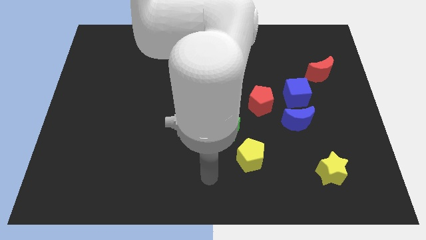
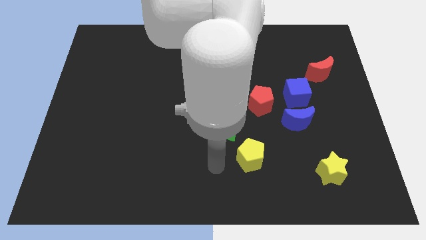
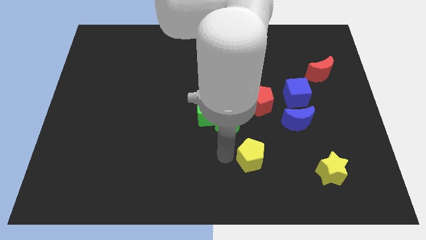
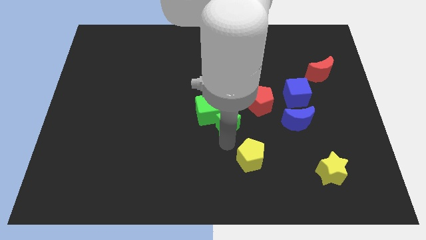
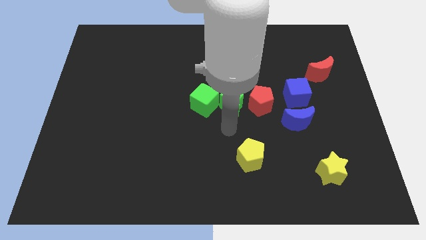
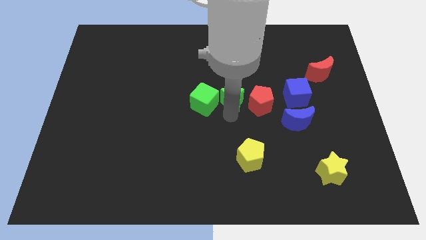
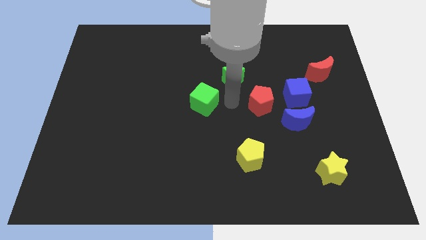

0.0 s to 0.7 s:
separate the green cube from the green star

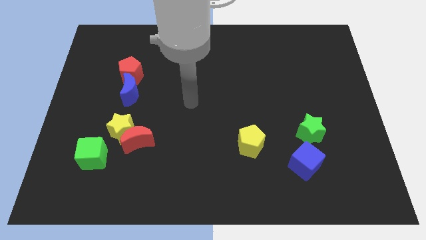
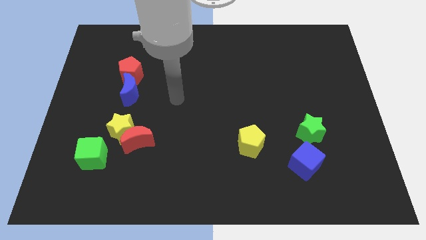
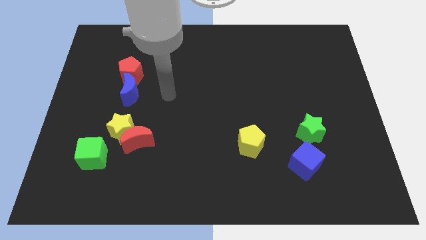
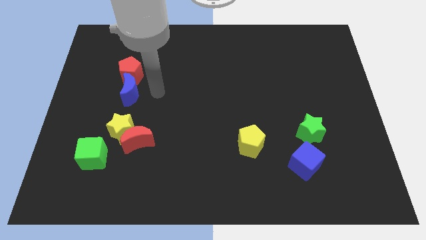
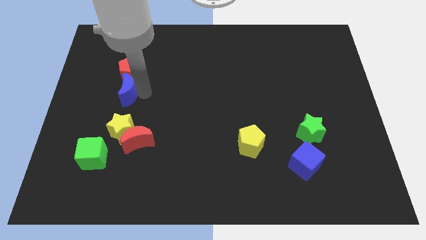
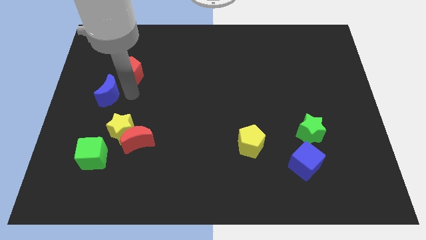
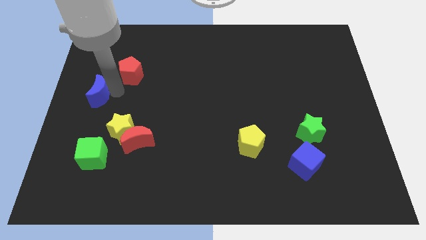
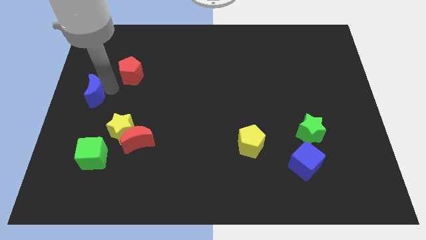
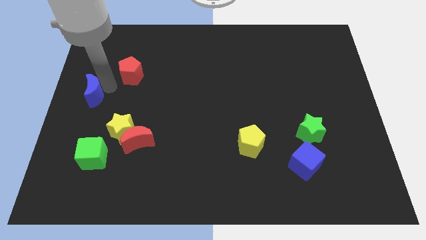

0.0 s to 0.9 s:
separate the red pentagon from the blue moon

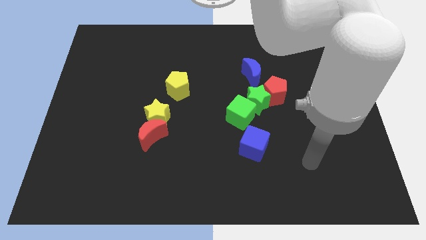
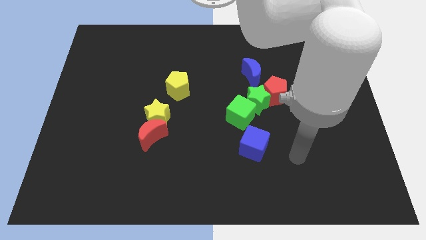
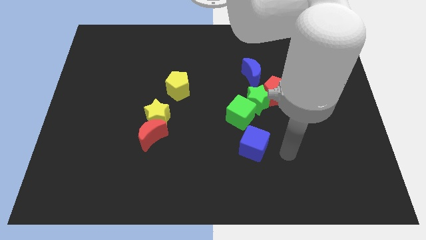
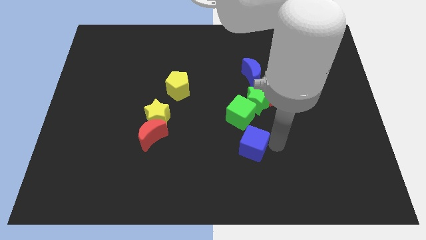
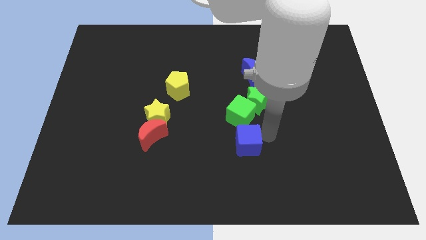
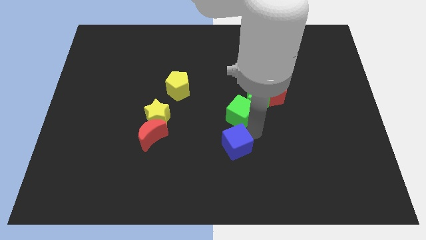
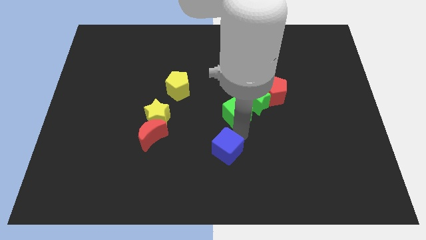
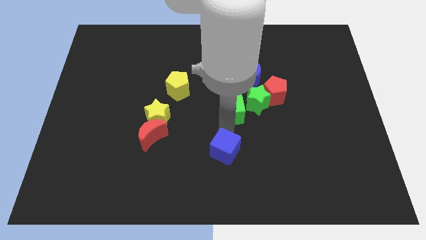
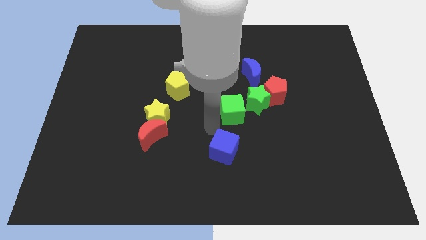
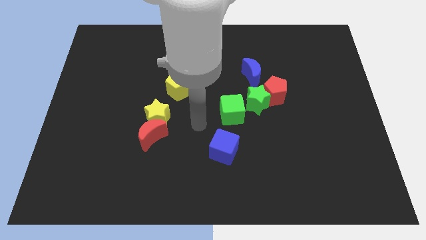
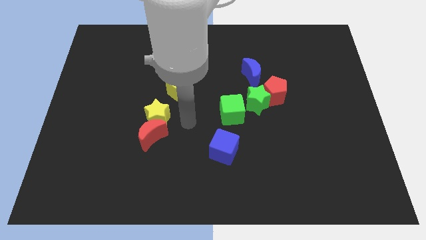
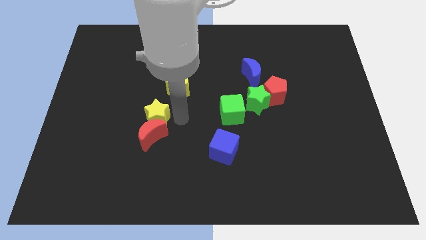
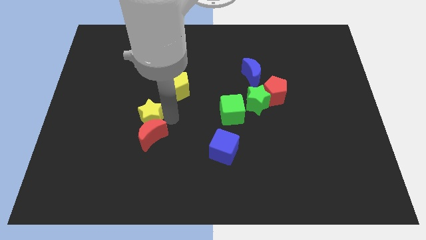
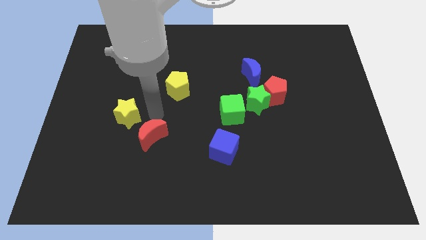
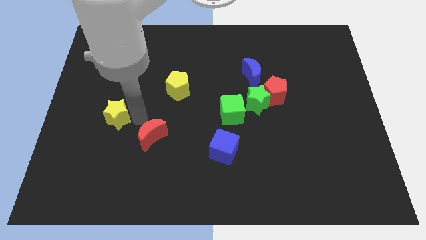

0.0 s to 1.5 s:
move the red moon away from the yellow star

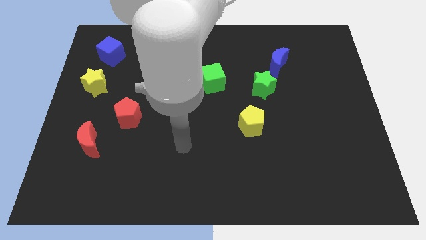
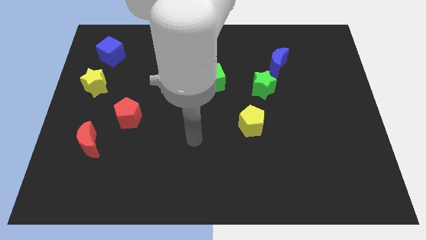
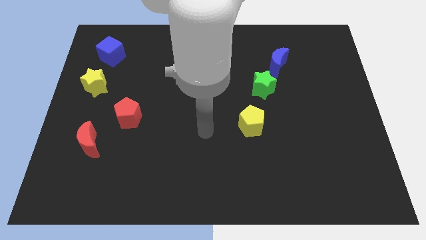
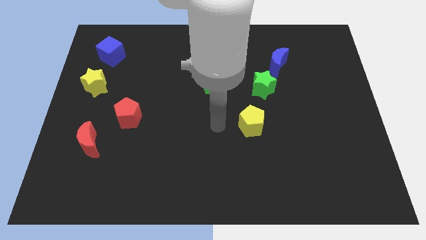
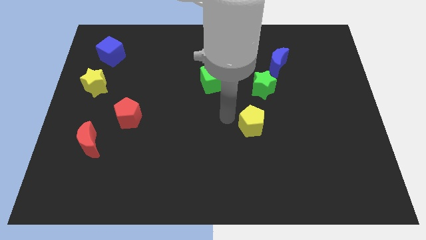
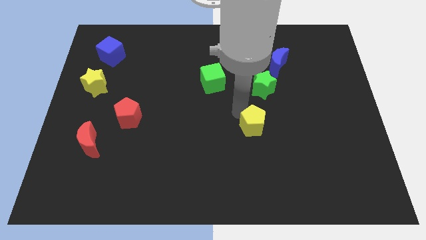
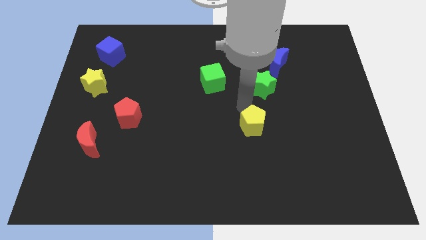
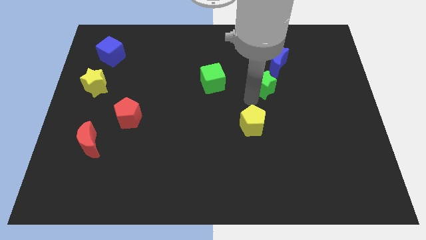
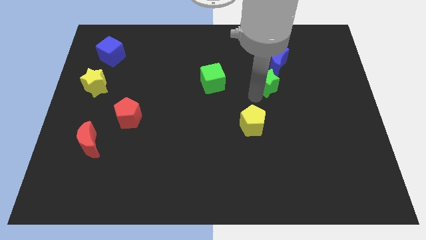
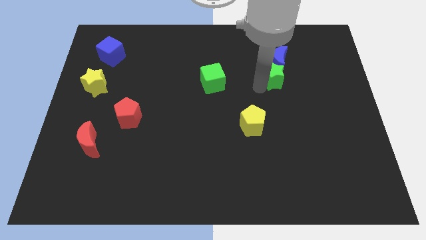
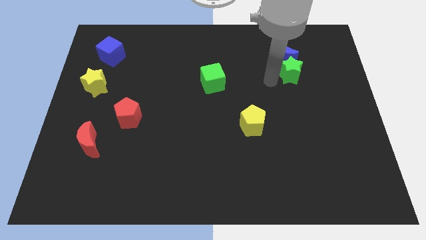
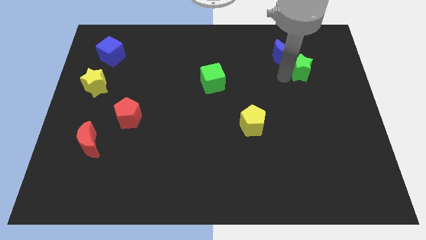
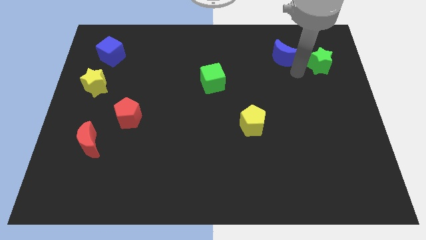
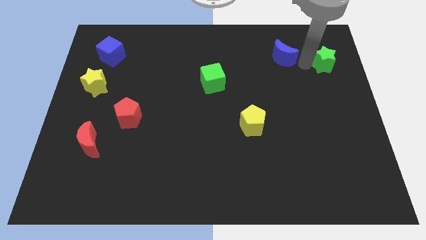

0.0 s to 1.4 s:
separate the blue moon from the green star

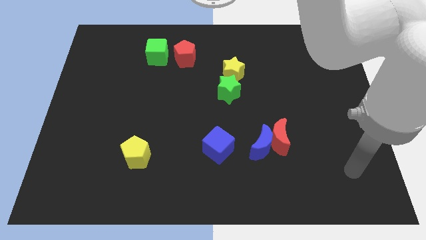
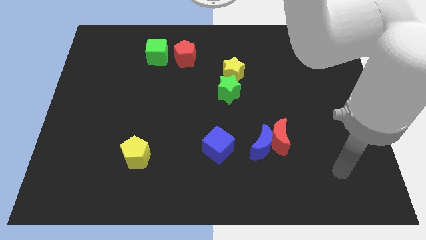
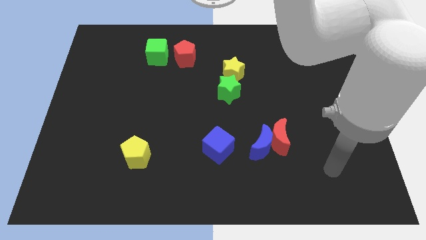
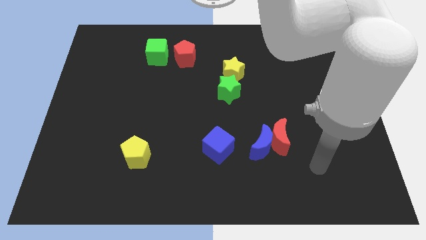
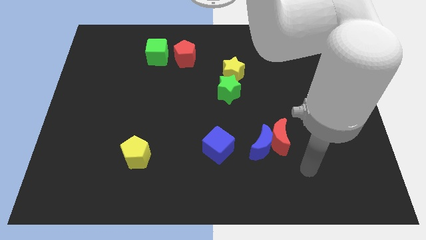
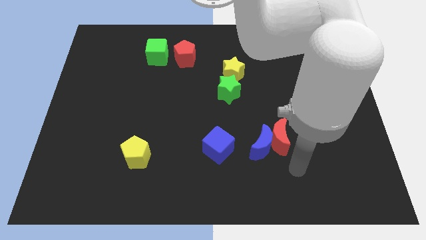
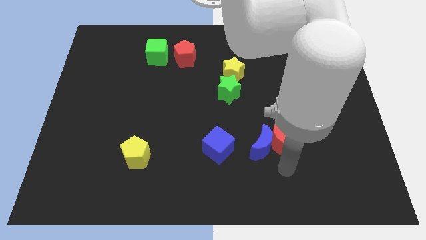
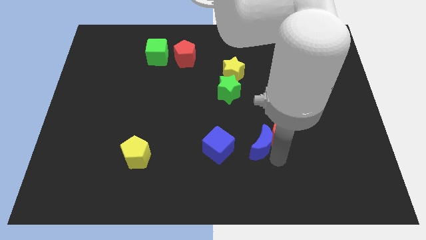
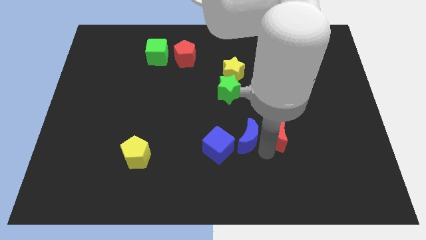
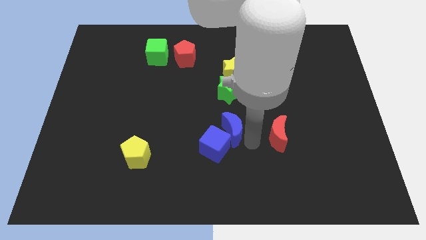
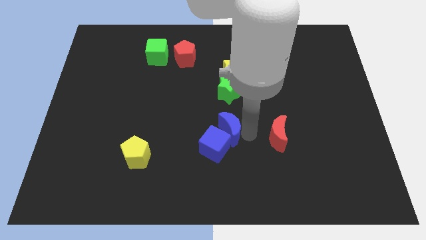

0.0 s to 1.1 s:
move the red moon away from the blue moon

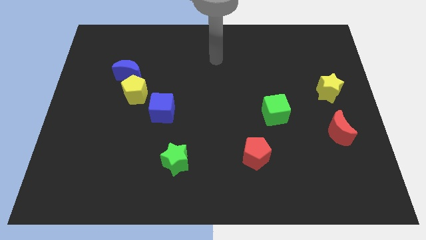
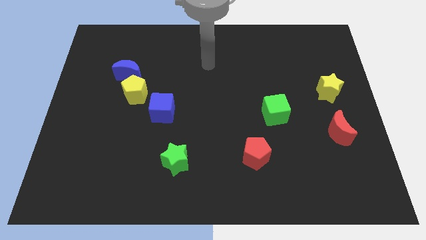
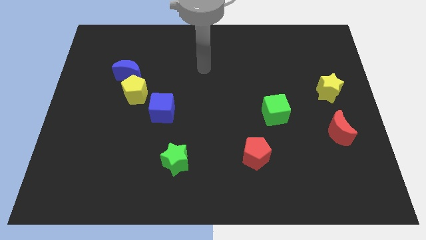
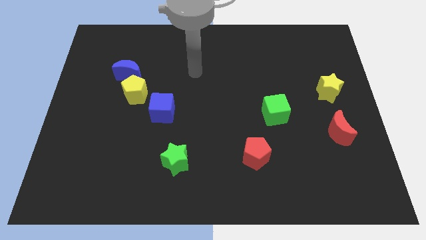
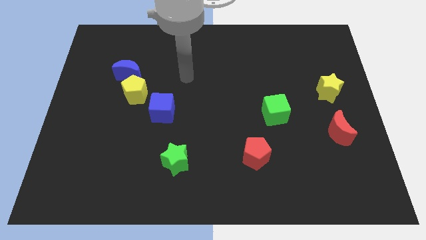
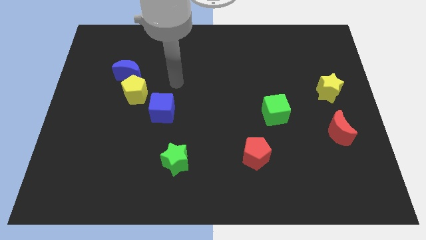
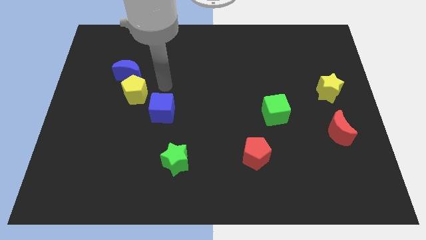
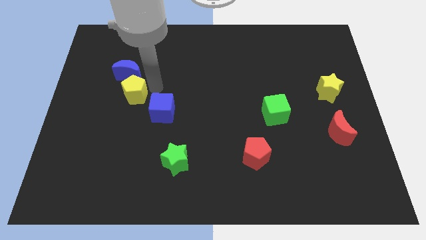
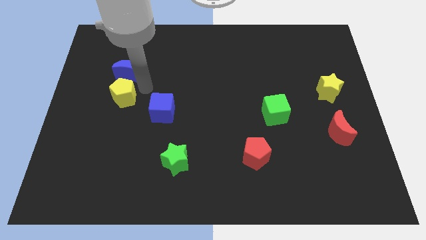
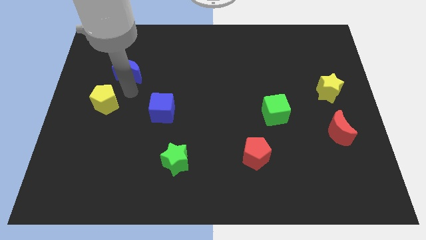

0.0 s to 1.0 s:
separate the blue moon from the yellow pentagon

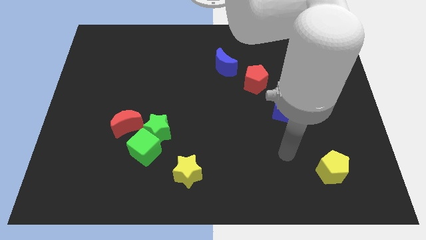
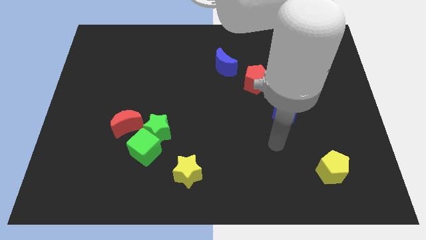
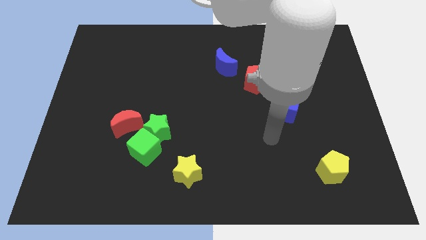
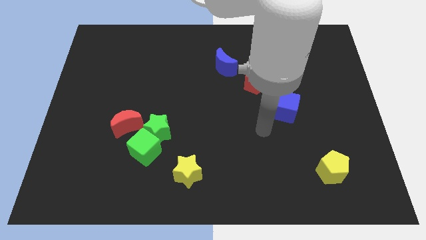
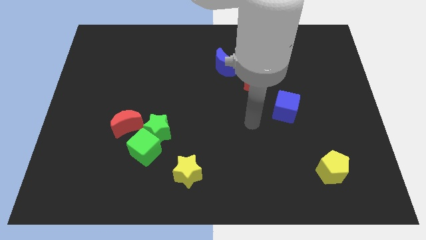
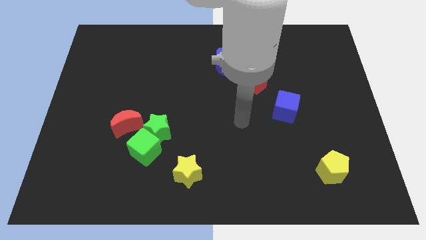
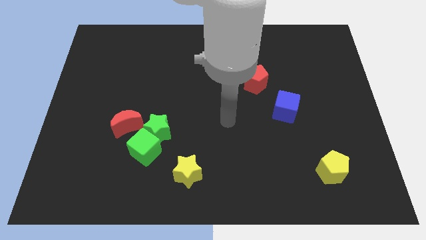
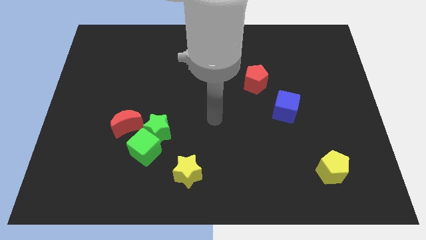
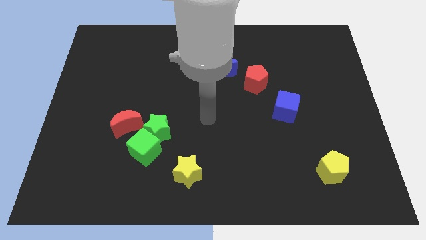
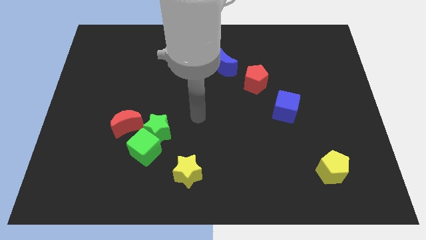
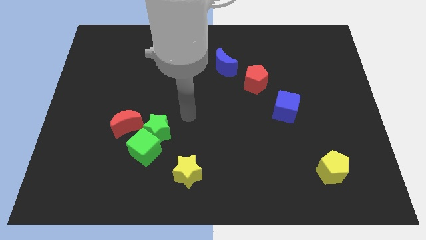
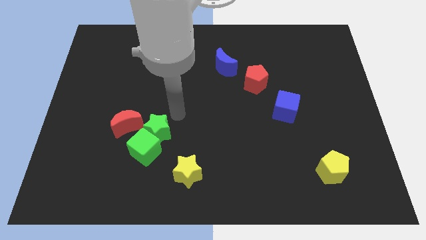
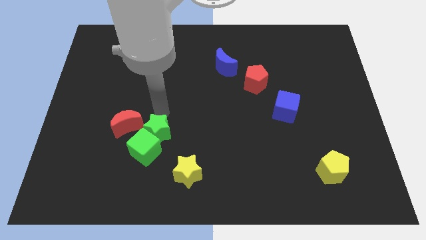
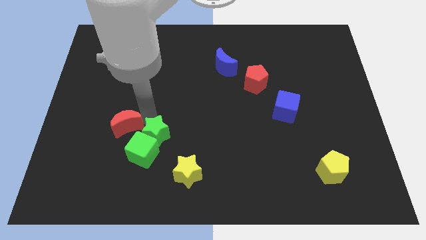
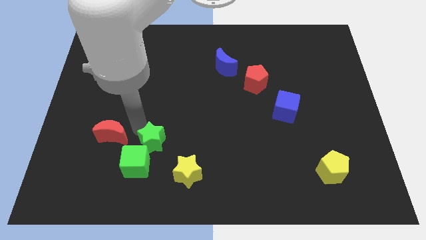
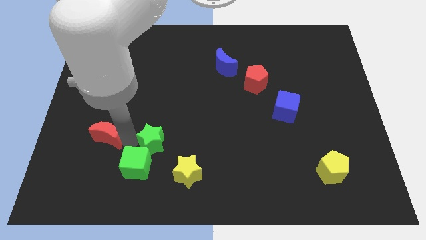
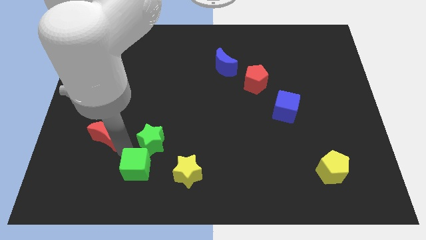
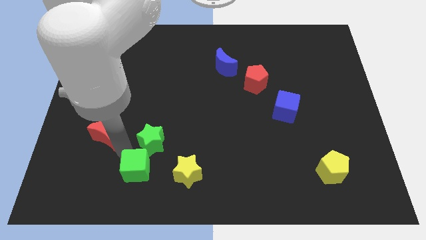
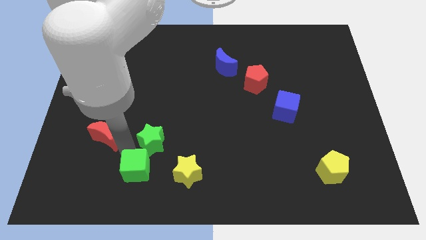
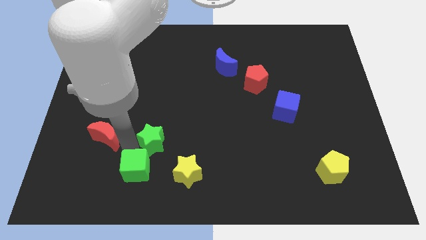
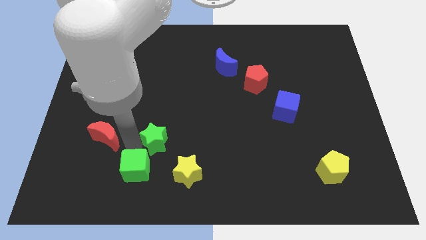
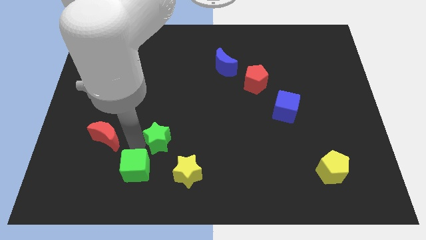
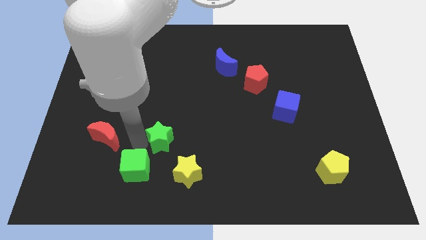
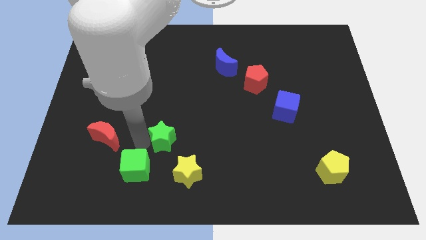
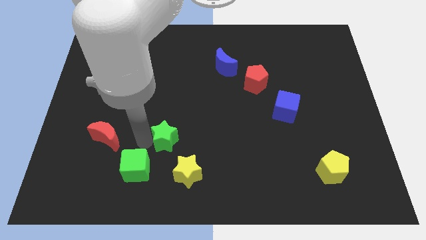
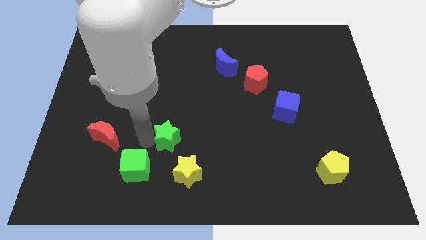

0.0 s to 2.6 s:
separate the green star from the green cube and red moon
